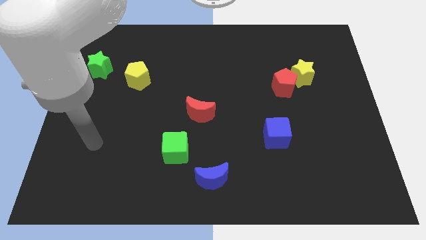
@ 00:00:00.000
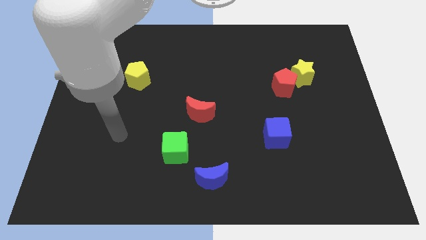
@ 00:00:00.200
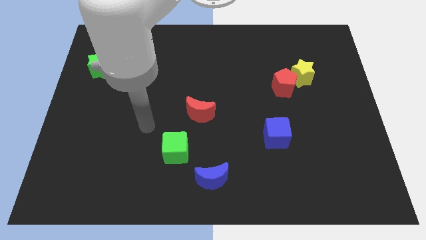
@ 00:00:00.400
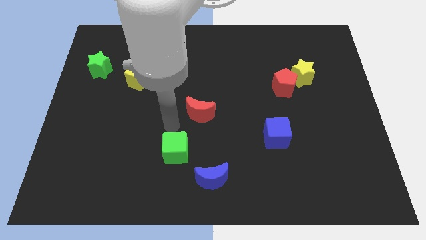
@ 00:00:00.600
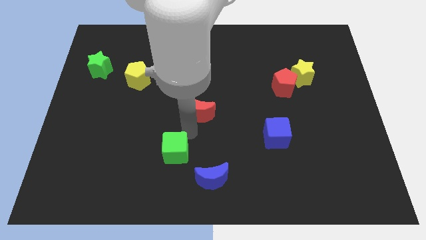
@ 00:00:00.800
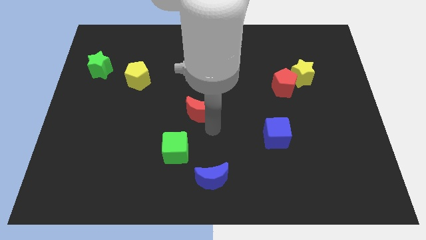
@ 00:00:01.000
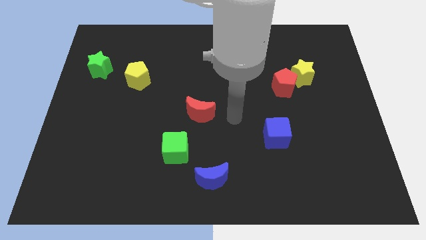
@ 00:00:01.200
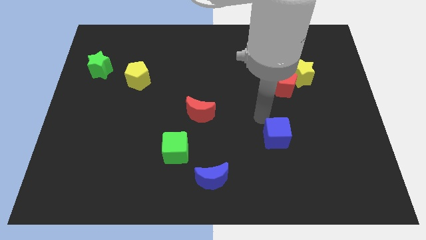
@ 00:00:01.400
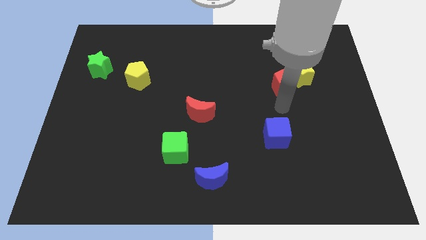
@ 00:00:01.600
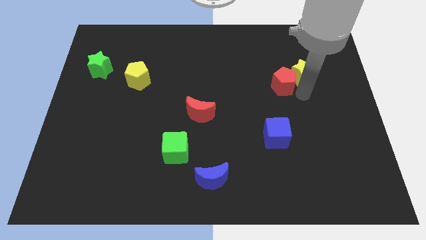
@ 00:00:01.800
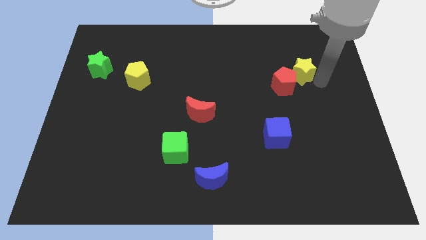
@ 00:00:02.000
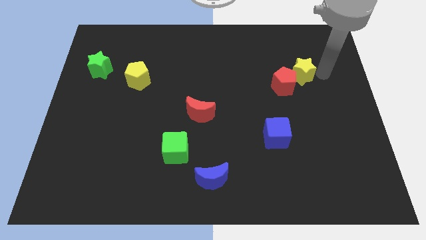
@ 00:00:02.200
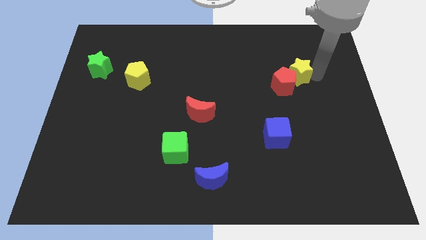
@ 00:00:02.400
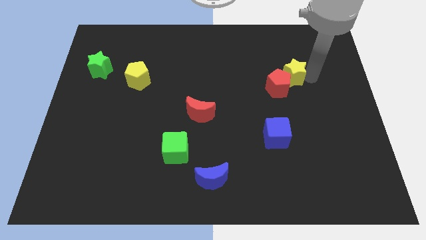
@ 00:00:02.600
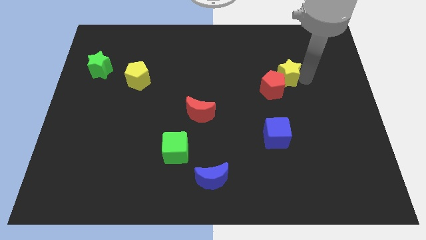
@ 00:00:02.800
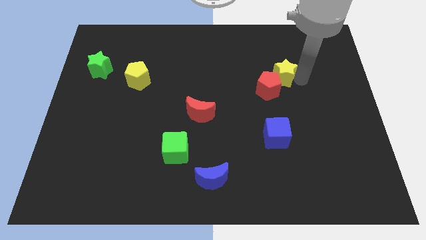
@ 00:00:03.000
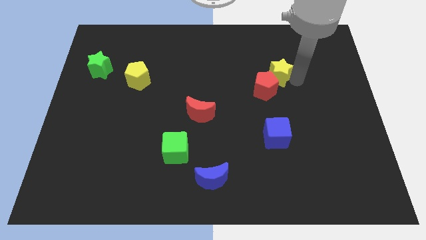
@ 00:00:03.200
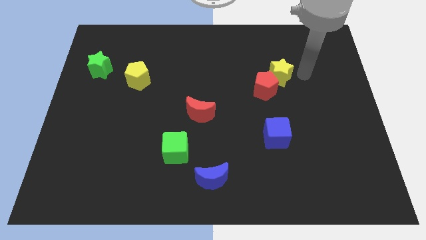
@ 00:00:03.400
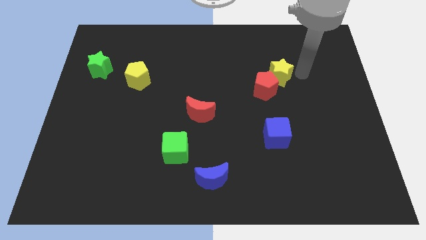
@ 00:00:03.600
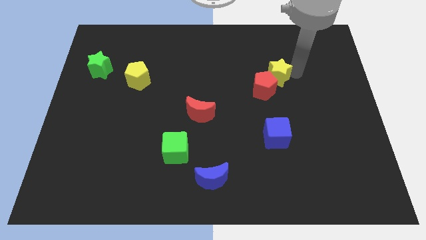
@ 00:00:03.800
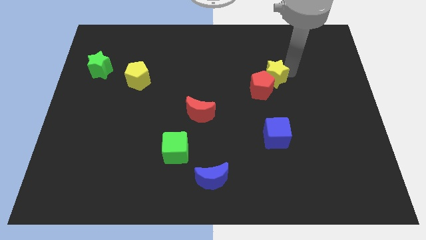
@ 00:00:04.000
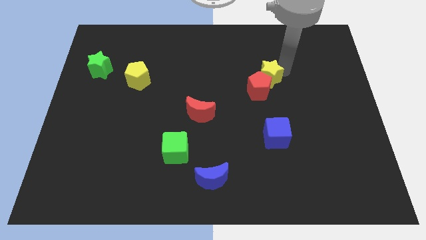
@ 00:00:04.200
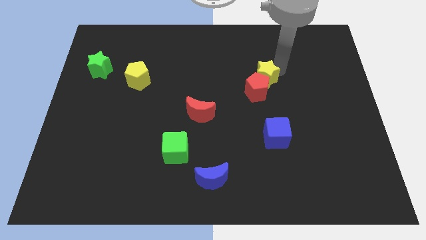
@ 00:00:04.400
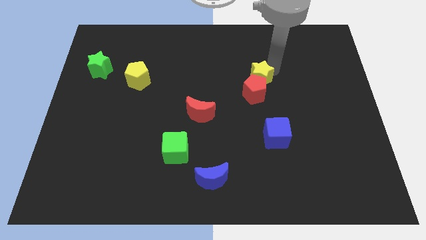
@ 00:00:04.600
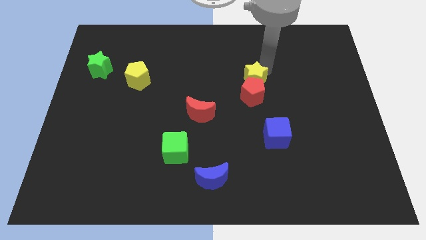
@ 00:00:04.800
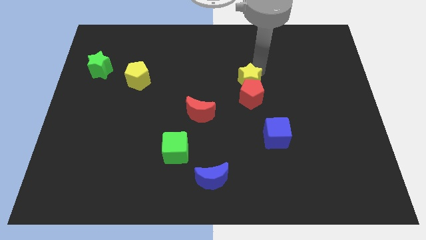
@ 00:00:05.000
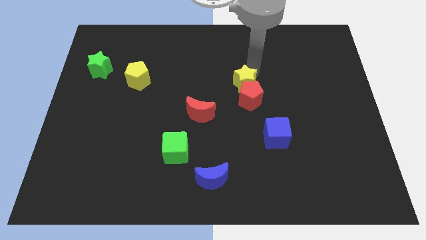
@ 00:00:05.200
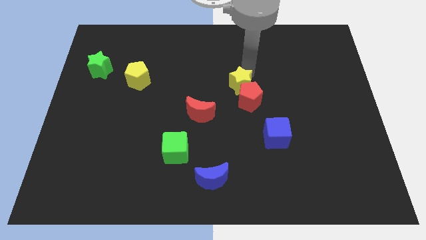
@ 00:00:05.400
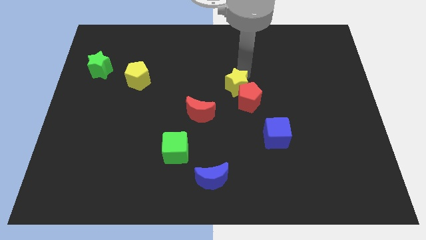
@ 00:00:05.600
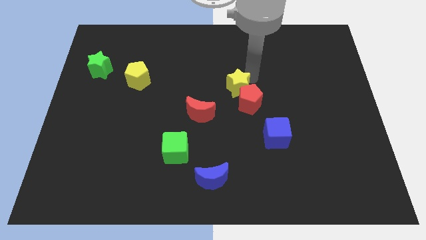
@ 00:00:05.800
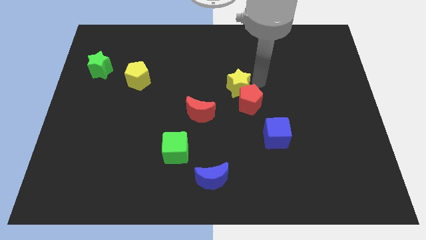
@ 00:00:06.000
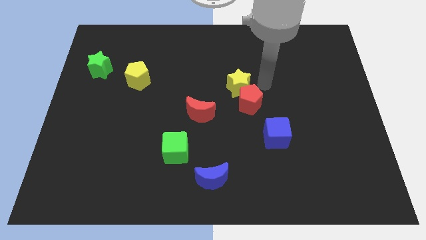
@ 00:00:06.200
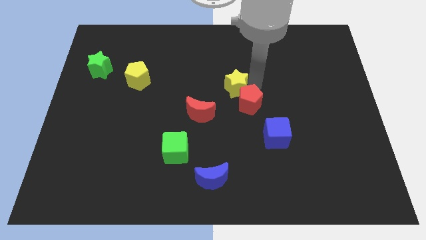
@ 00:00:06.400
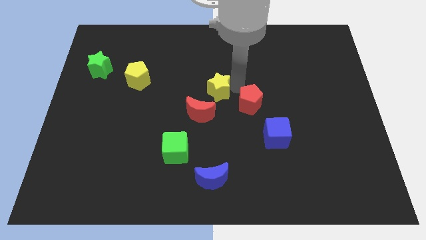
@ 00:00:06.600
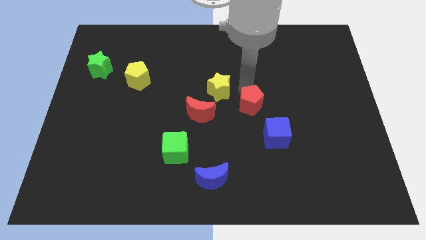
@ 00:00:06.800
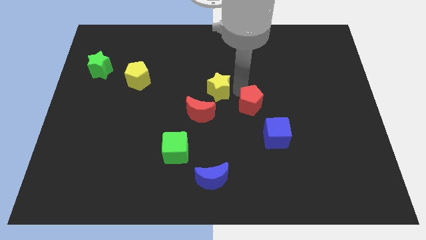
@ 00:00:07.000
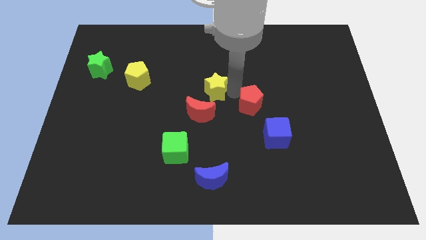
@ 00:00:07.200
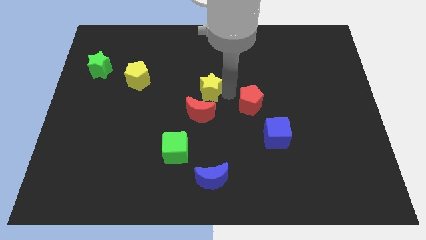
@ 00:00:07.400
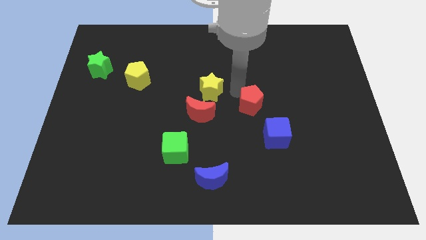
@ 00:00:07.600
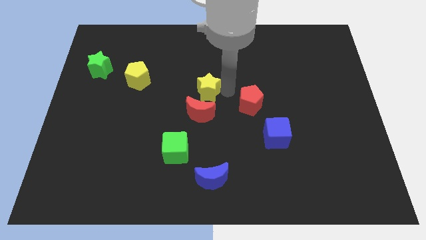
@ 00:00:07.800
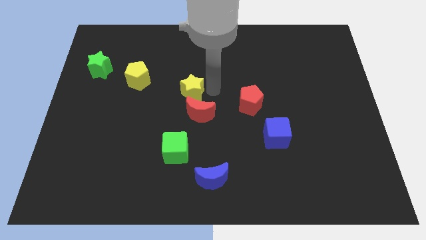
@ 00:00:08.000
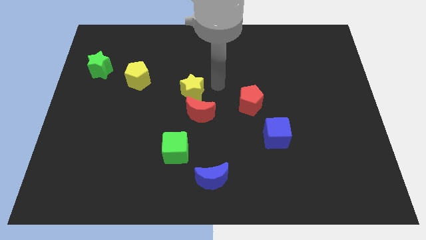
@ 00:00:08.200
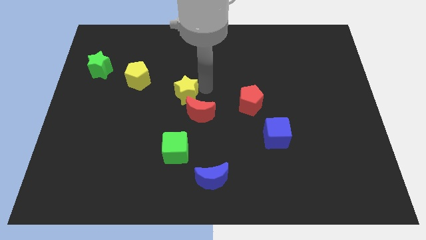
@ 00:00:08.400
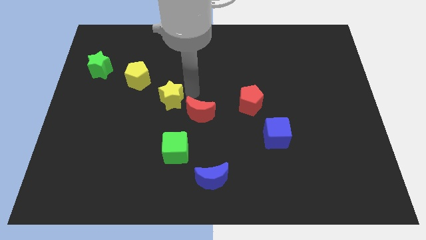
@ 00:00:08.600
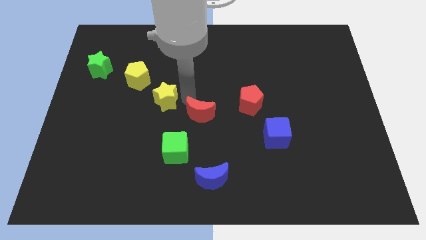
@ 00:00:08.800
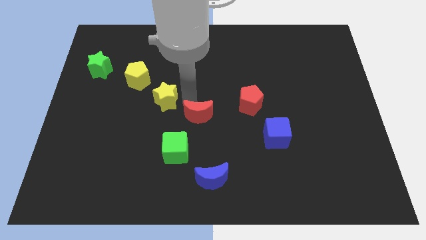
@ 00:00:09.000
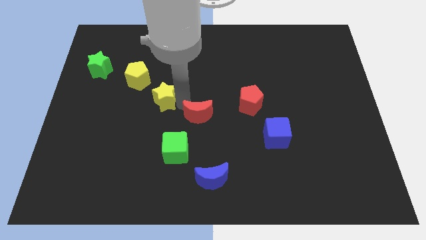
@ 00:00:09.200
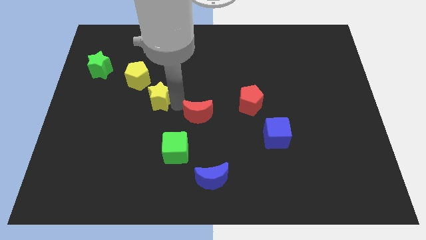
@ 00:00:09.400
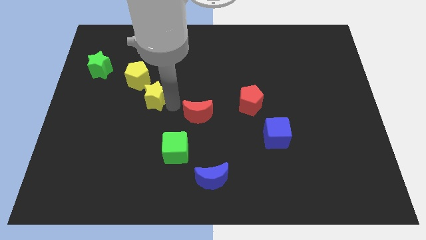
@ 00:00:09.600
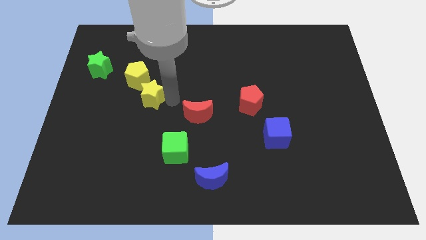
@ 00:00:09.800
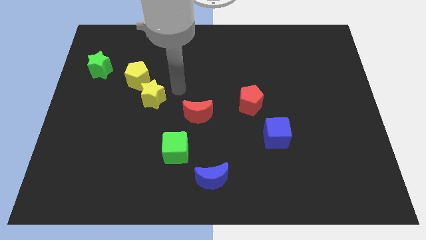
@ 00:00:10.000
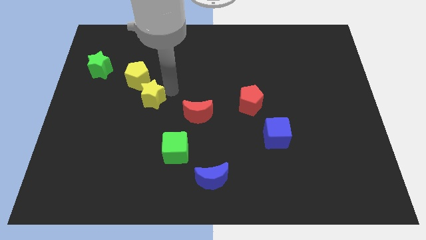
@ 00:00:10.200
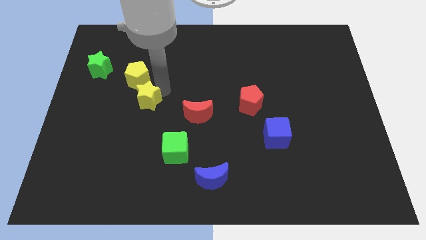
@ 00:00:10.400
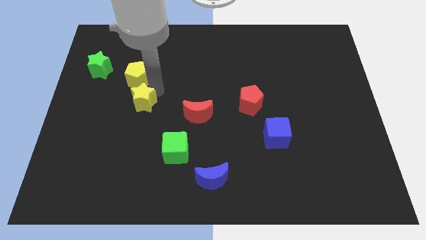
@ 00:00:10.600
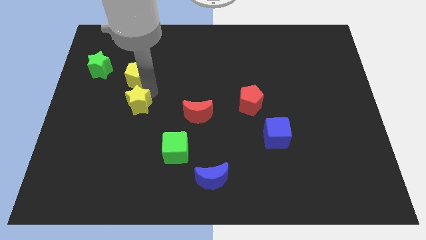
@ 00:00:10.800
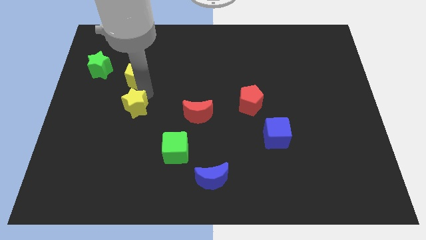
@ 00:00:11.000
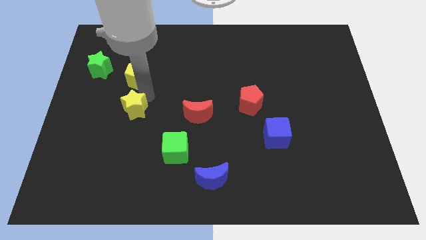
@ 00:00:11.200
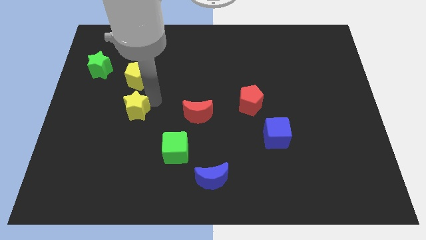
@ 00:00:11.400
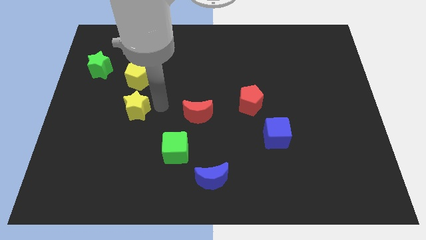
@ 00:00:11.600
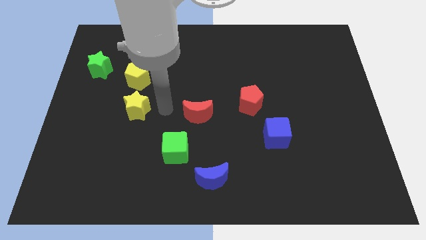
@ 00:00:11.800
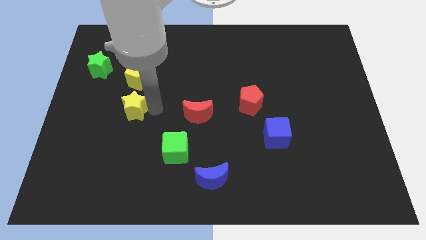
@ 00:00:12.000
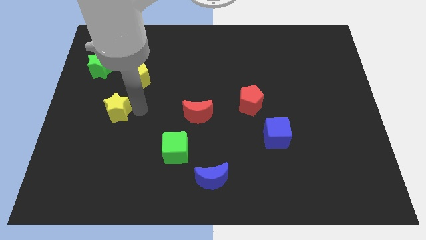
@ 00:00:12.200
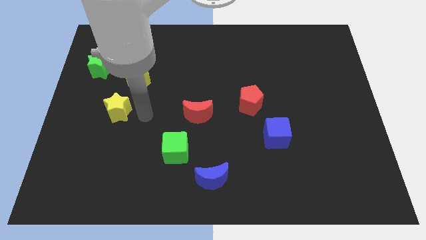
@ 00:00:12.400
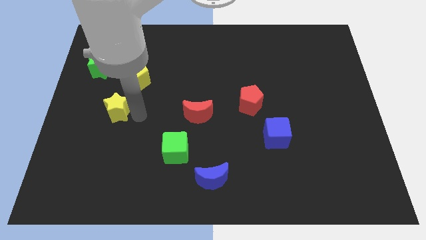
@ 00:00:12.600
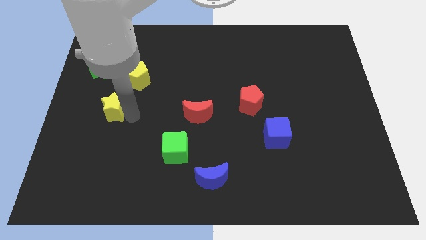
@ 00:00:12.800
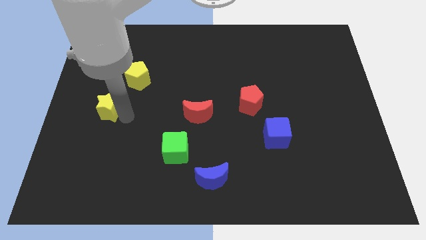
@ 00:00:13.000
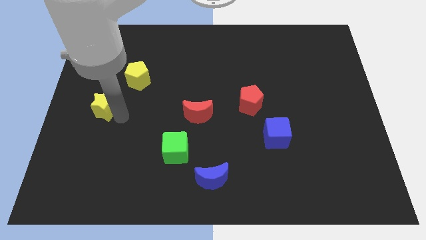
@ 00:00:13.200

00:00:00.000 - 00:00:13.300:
put the yellow star to the left side of the board
